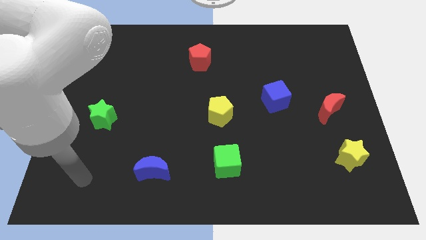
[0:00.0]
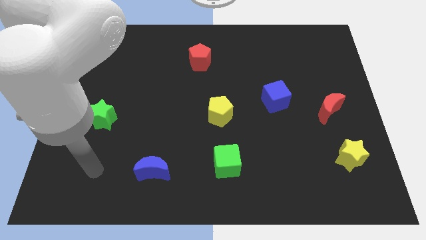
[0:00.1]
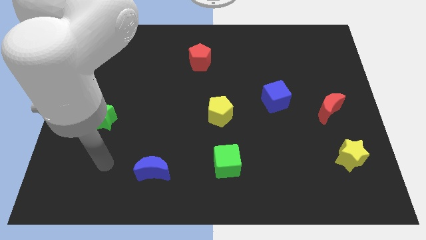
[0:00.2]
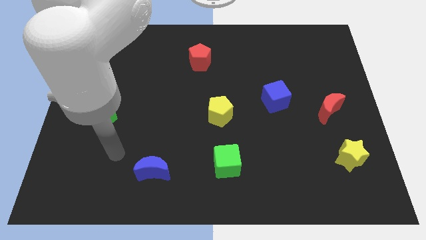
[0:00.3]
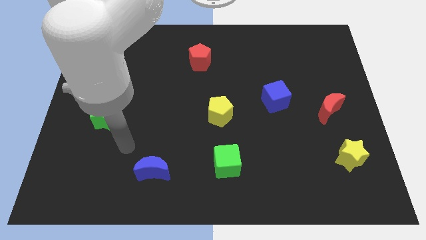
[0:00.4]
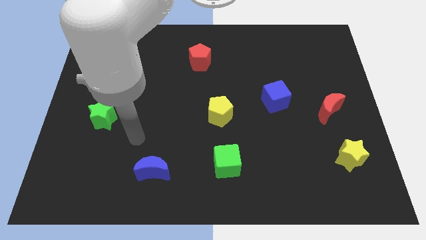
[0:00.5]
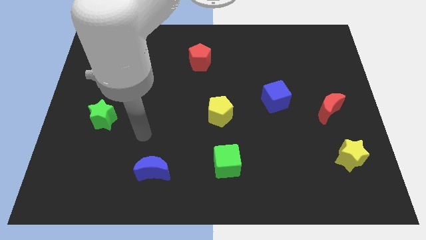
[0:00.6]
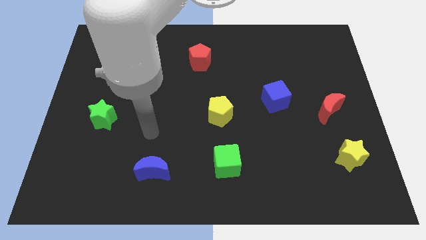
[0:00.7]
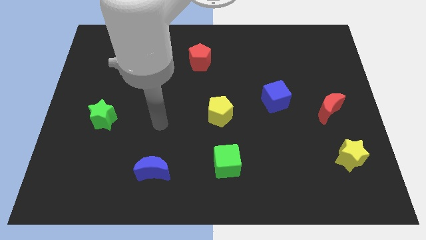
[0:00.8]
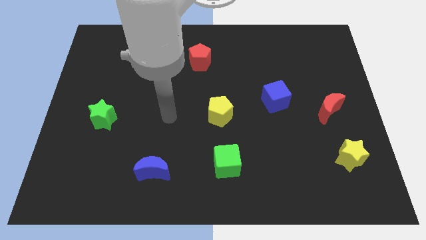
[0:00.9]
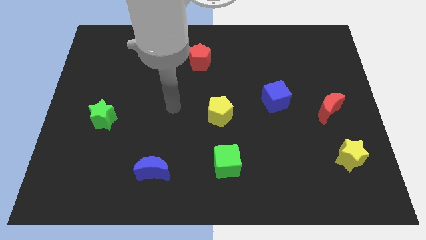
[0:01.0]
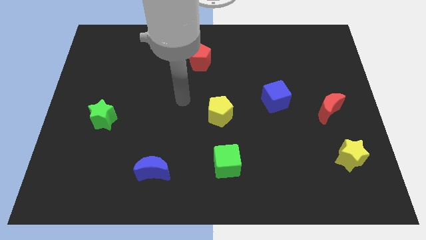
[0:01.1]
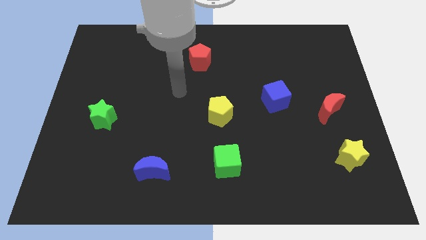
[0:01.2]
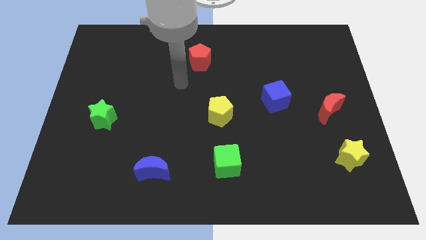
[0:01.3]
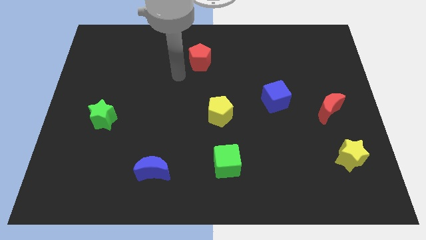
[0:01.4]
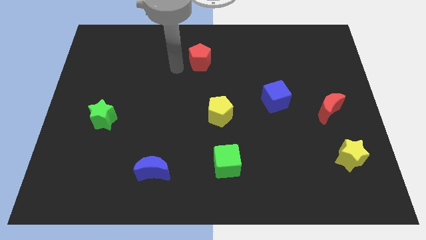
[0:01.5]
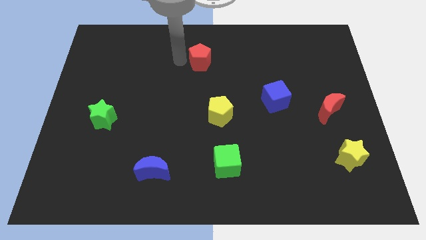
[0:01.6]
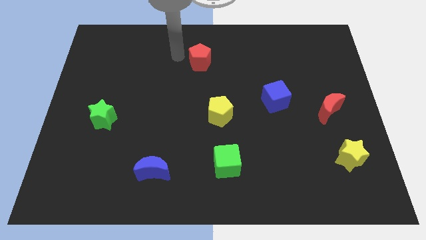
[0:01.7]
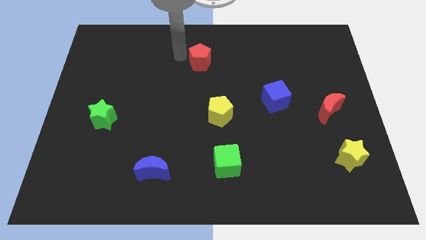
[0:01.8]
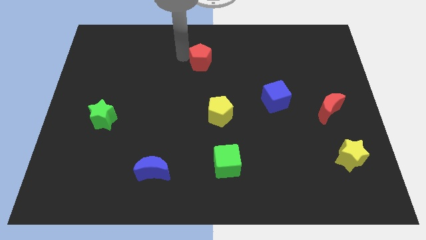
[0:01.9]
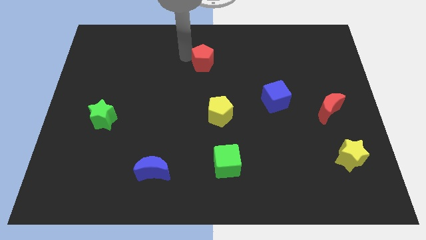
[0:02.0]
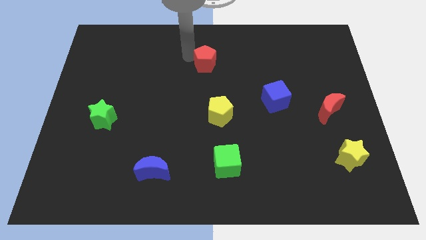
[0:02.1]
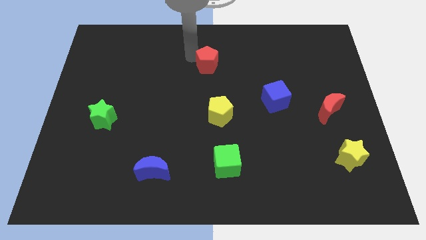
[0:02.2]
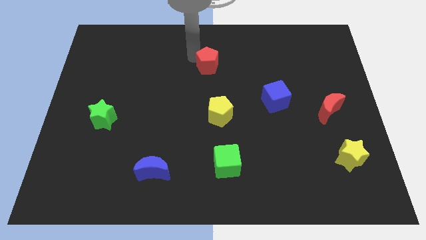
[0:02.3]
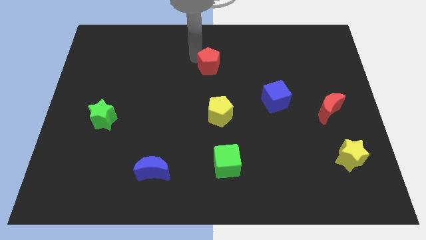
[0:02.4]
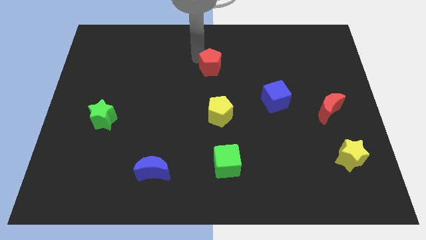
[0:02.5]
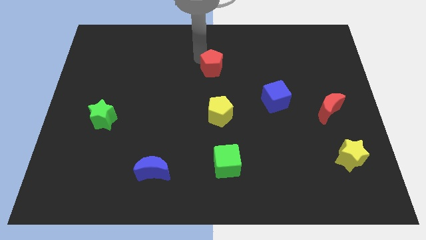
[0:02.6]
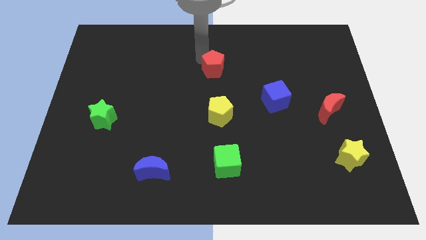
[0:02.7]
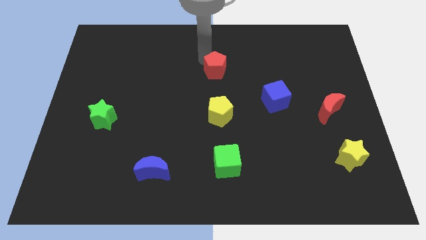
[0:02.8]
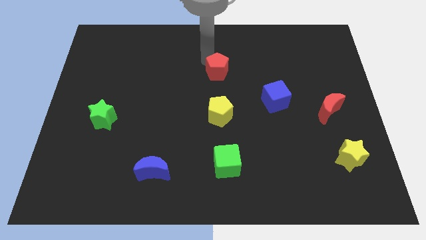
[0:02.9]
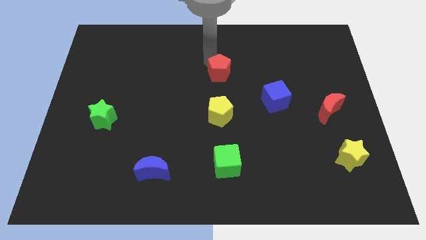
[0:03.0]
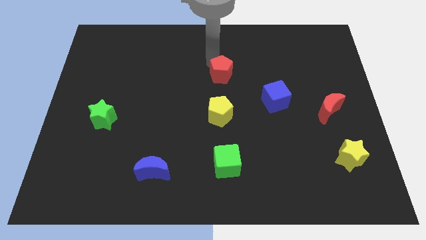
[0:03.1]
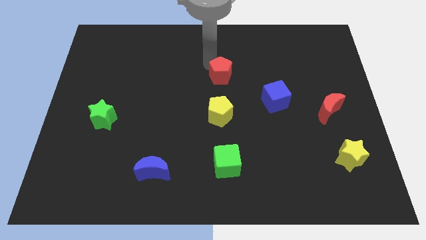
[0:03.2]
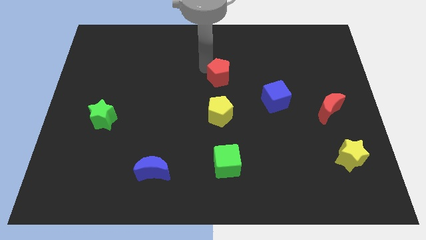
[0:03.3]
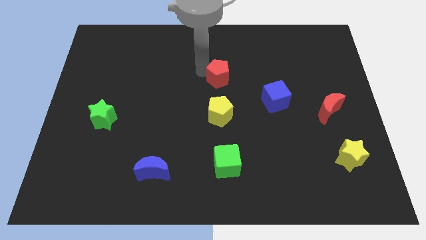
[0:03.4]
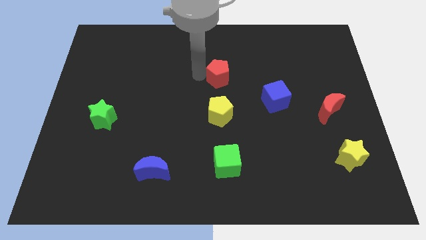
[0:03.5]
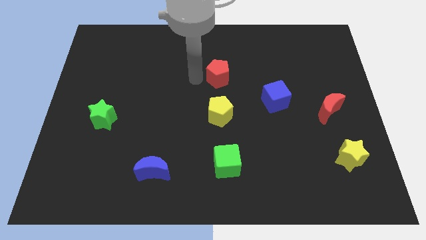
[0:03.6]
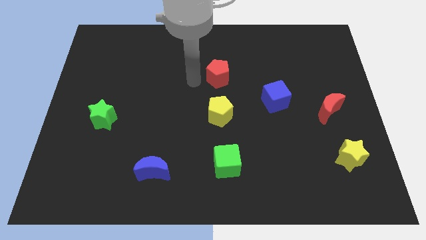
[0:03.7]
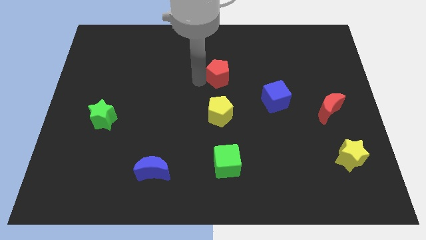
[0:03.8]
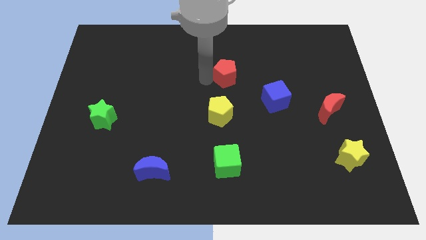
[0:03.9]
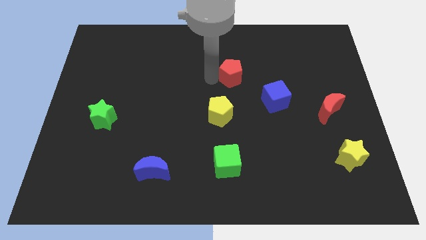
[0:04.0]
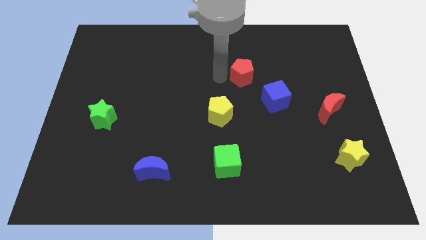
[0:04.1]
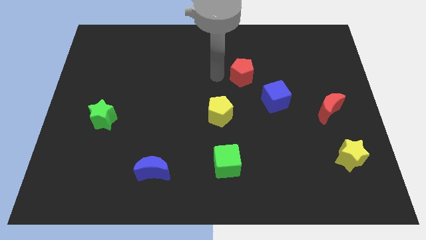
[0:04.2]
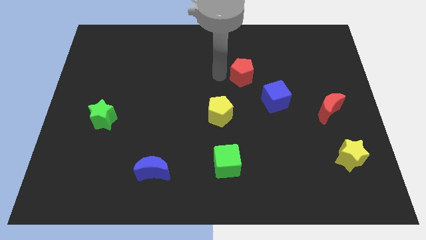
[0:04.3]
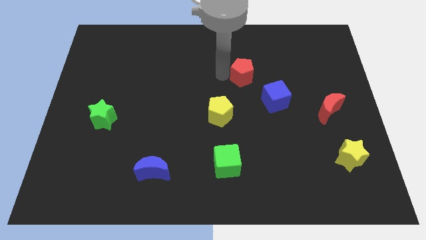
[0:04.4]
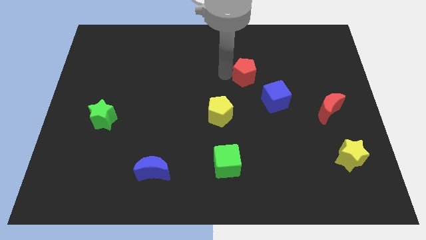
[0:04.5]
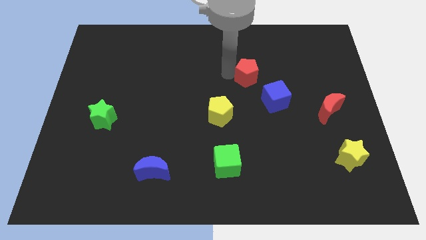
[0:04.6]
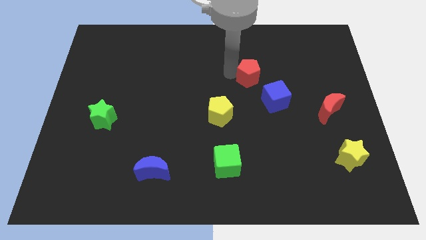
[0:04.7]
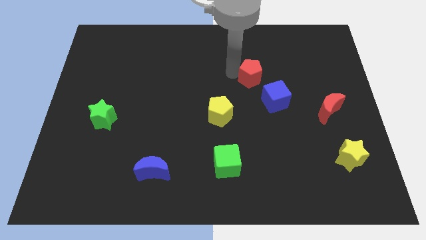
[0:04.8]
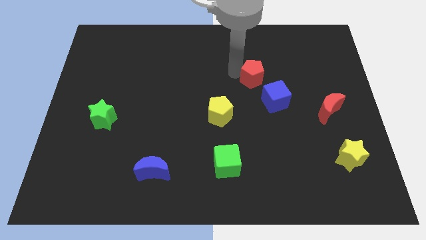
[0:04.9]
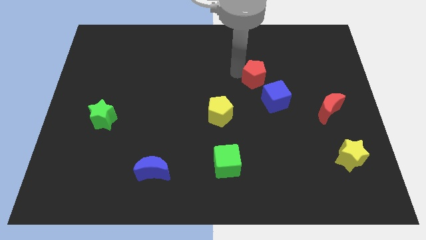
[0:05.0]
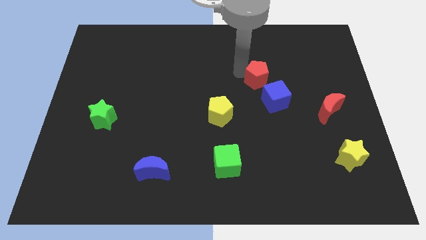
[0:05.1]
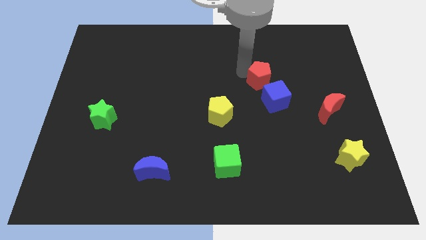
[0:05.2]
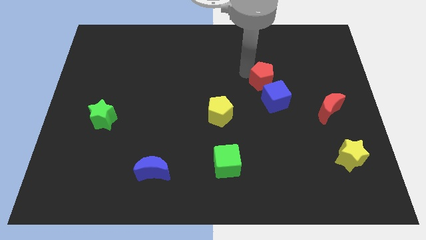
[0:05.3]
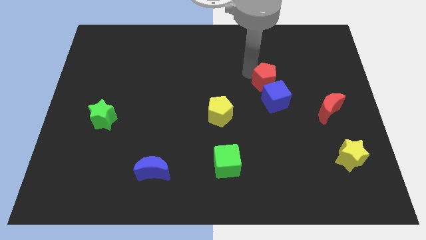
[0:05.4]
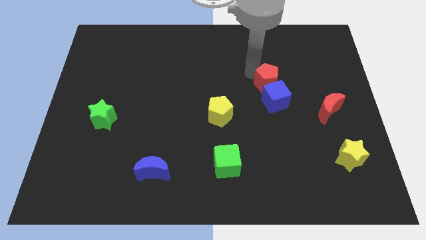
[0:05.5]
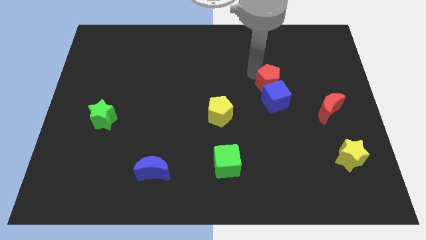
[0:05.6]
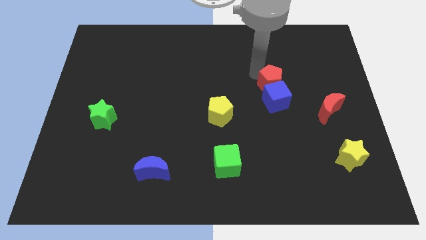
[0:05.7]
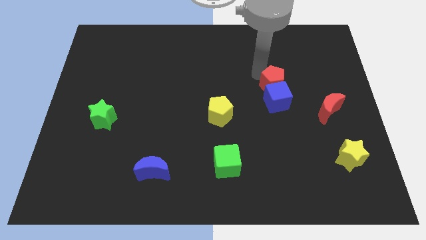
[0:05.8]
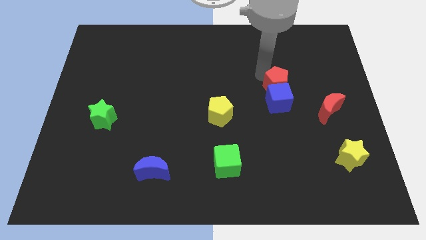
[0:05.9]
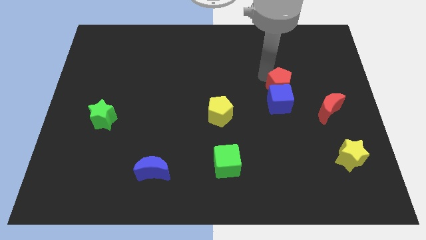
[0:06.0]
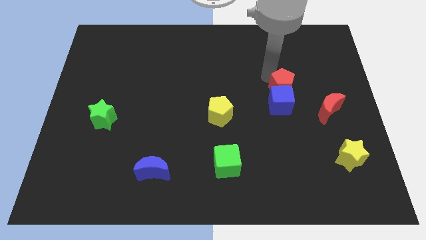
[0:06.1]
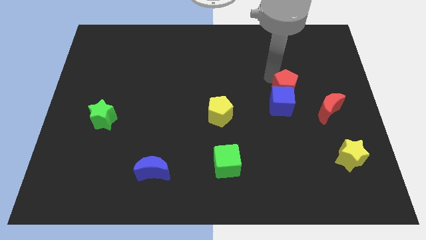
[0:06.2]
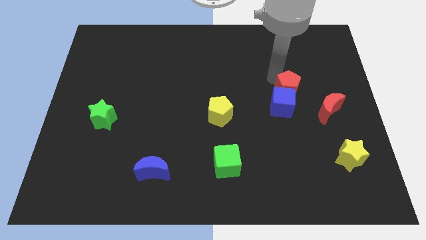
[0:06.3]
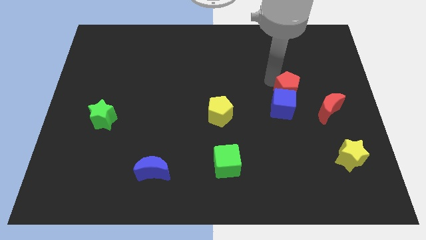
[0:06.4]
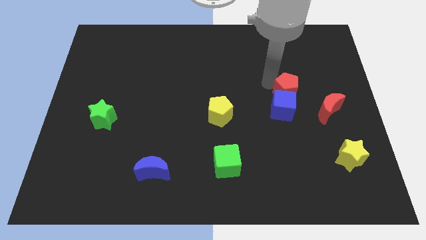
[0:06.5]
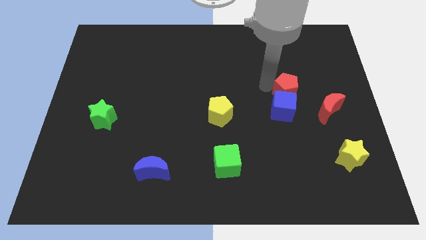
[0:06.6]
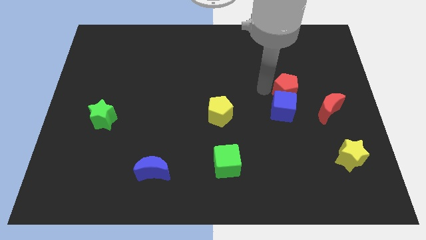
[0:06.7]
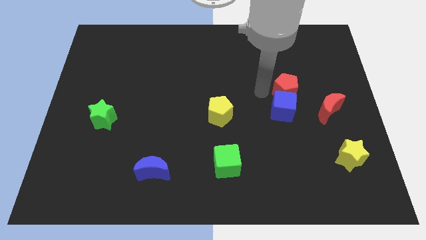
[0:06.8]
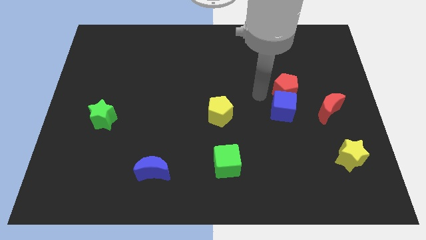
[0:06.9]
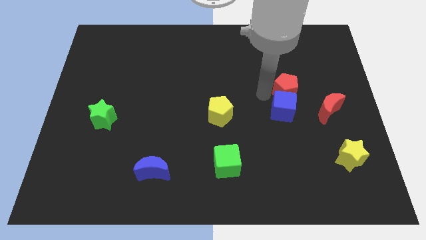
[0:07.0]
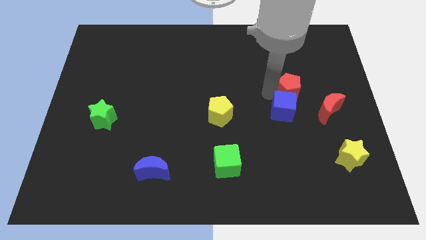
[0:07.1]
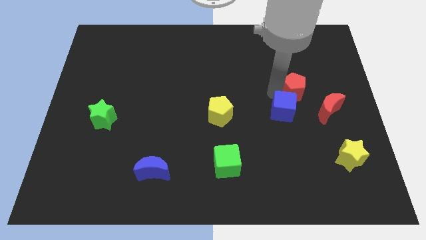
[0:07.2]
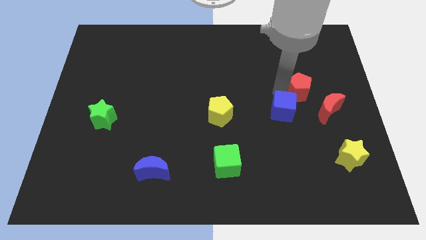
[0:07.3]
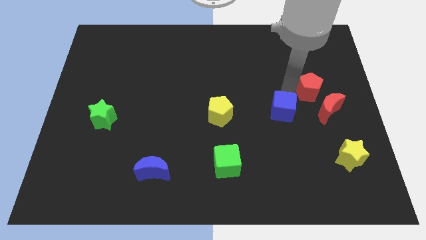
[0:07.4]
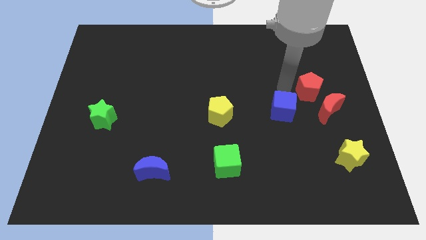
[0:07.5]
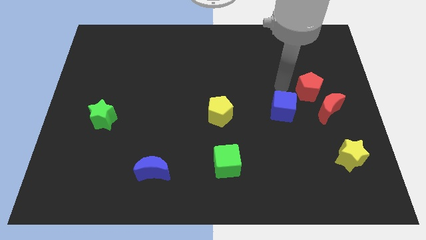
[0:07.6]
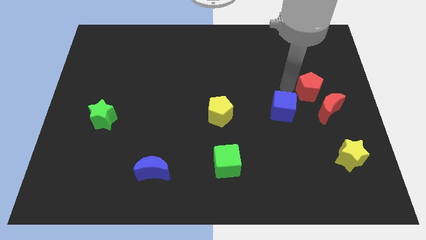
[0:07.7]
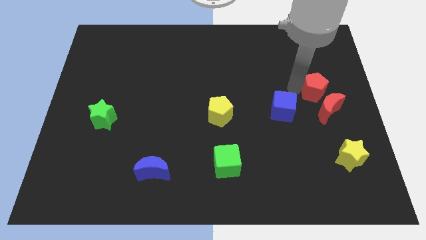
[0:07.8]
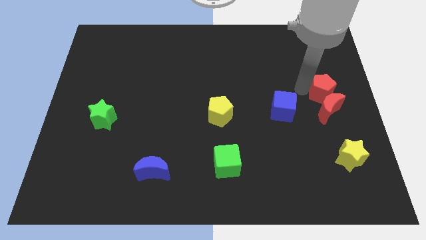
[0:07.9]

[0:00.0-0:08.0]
slide the red pentagon to the right side of the board
